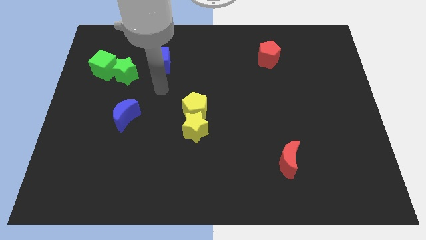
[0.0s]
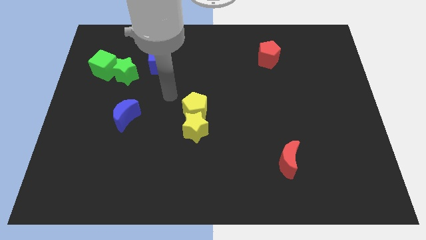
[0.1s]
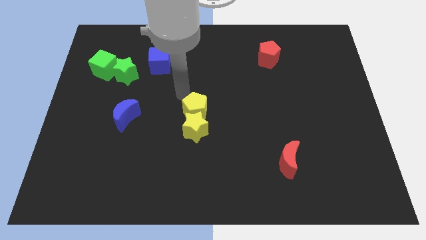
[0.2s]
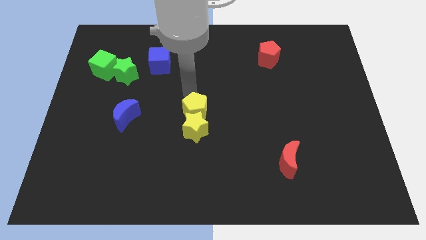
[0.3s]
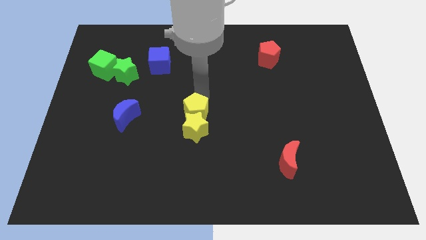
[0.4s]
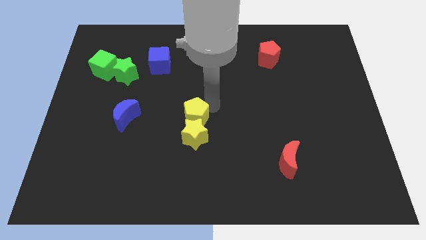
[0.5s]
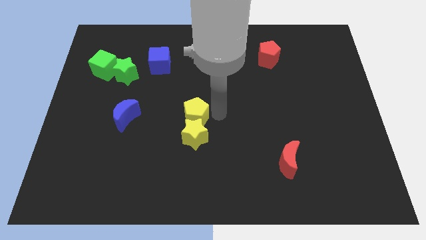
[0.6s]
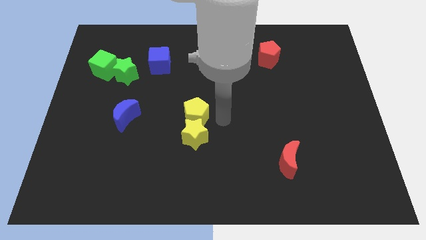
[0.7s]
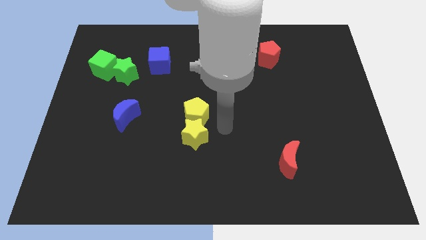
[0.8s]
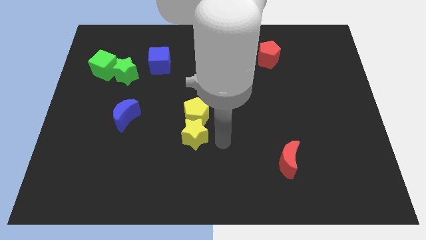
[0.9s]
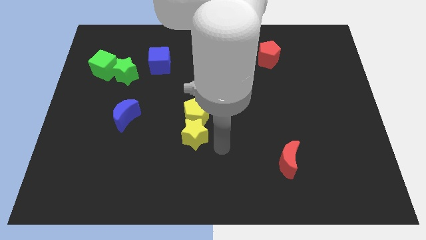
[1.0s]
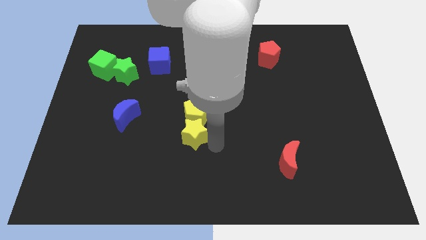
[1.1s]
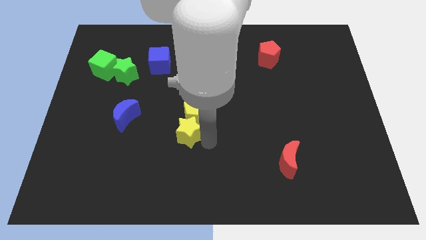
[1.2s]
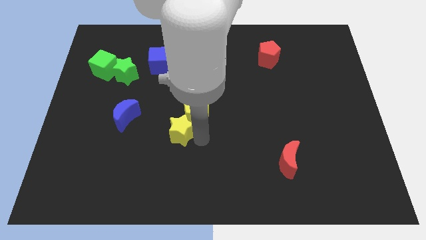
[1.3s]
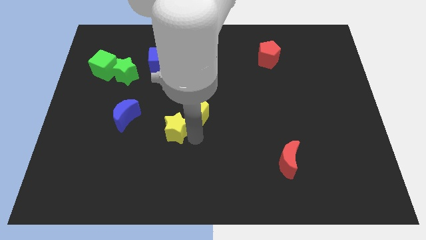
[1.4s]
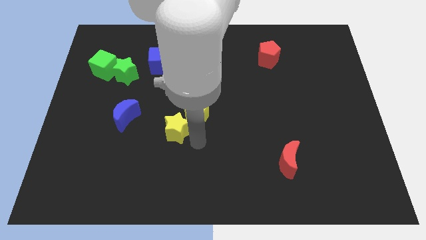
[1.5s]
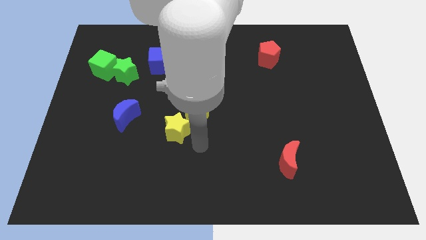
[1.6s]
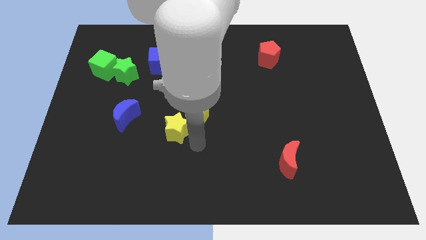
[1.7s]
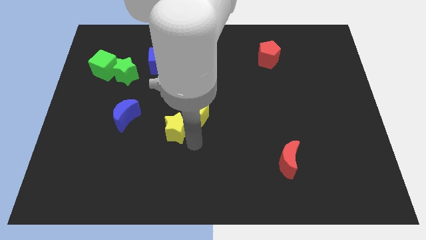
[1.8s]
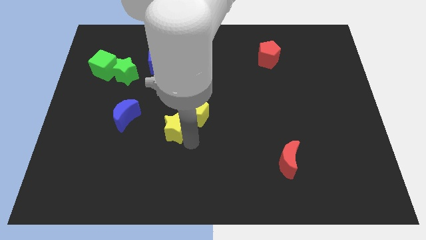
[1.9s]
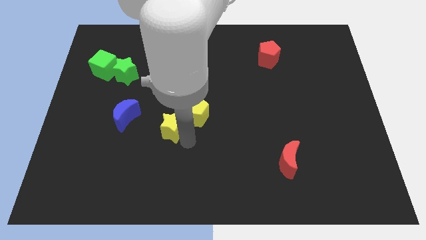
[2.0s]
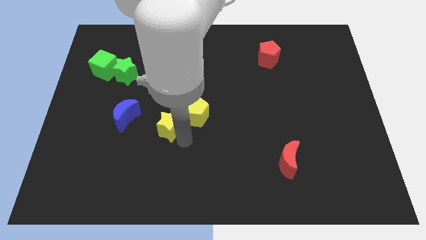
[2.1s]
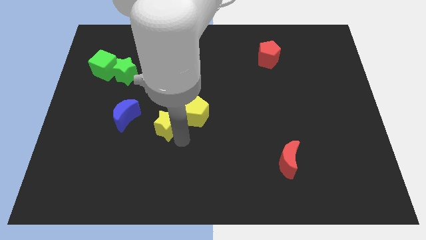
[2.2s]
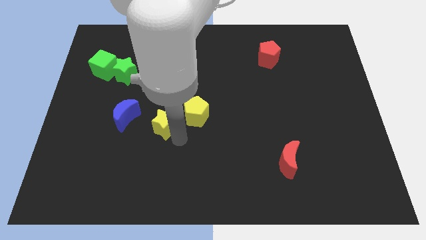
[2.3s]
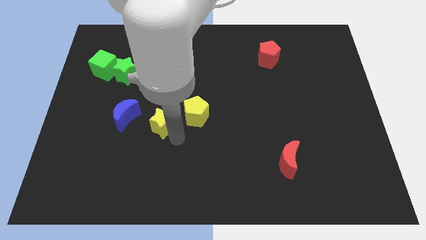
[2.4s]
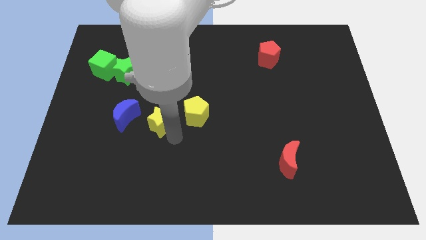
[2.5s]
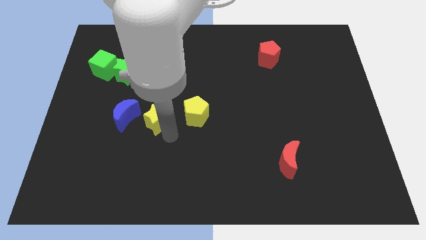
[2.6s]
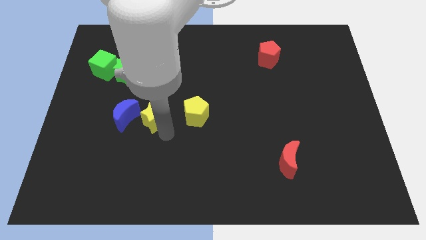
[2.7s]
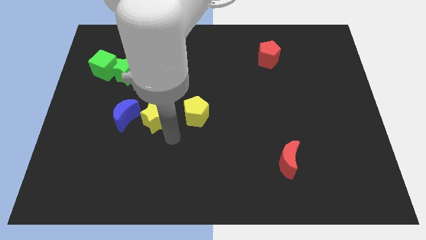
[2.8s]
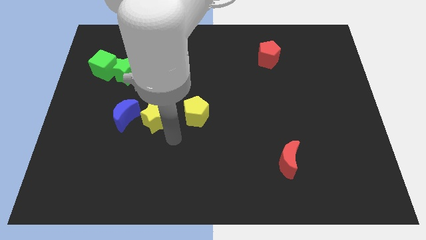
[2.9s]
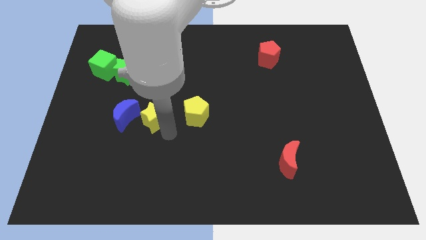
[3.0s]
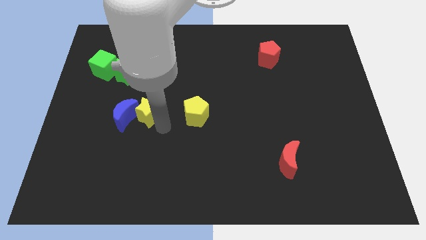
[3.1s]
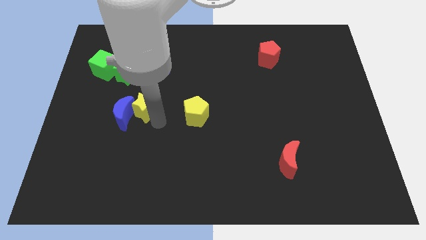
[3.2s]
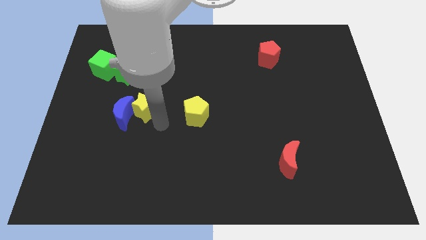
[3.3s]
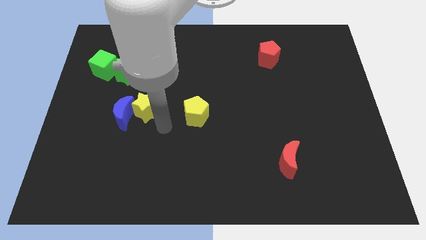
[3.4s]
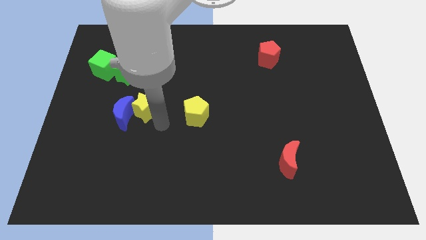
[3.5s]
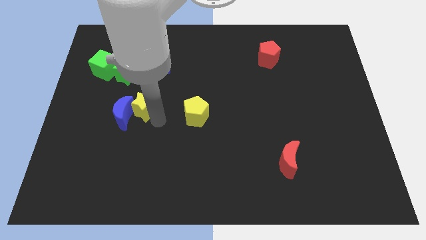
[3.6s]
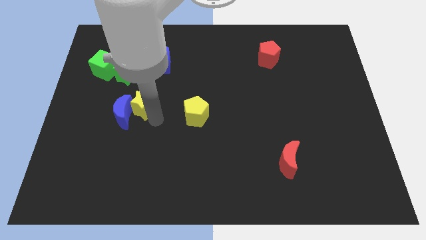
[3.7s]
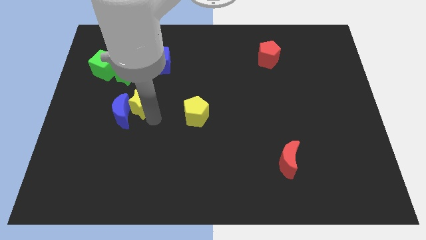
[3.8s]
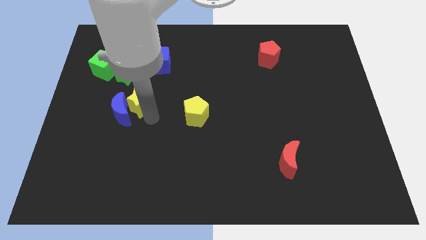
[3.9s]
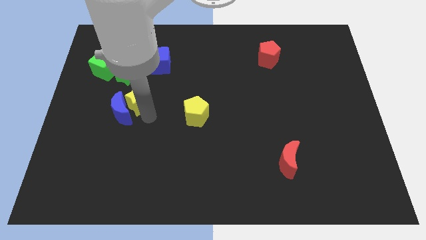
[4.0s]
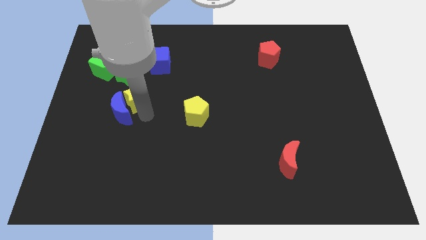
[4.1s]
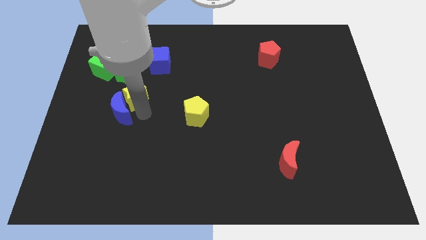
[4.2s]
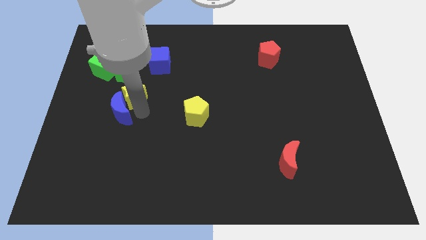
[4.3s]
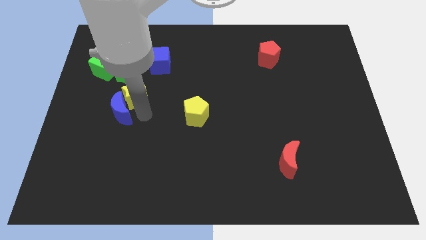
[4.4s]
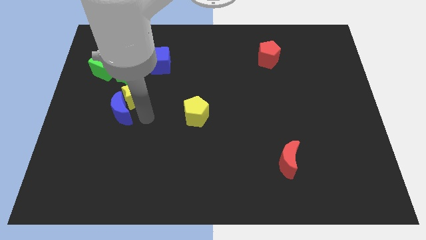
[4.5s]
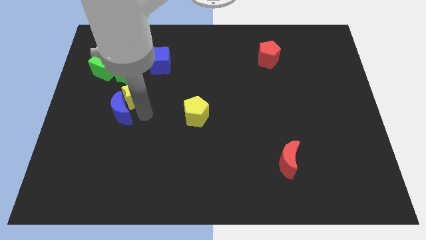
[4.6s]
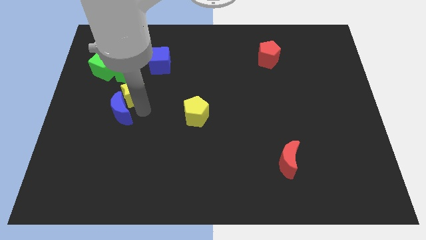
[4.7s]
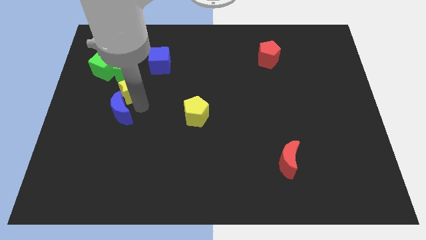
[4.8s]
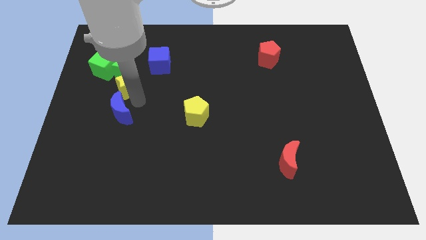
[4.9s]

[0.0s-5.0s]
push the yellow star next to the green star

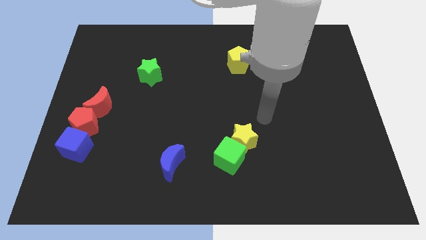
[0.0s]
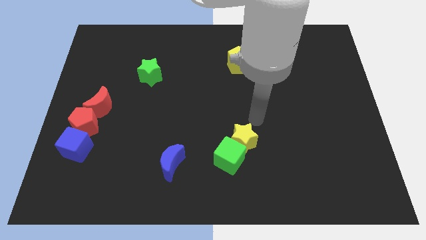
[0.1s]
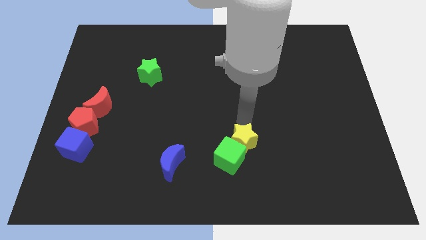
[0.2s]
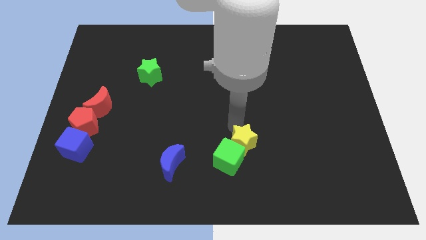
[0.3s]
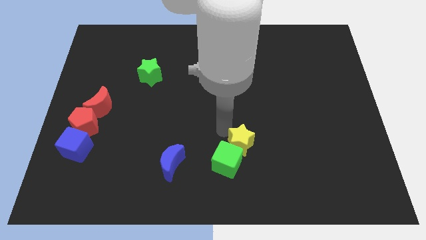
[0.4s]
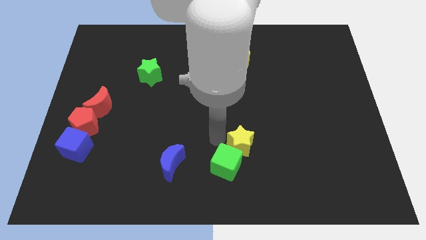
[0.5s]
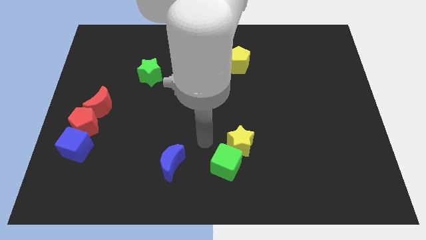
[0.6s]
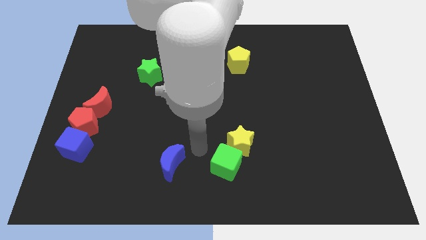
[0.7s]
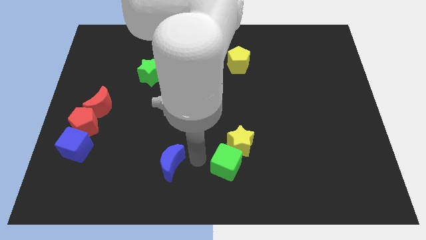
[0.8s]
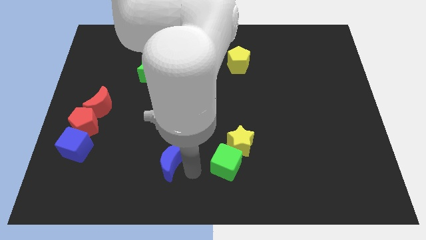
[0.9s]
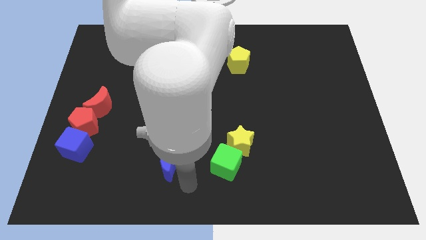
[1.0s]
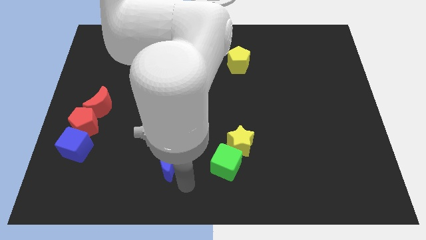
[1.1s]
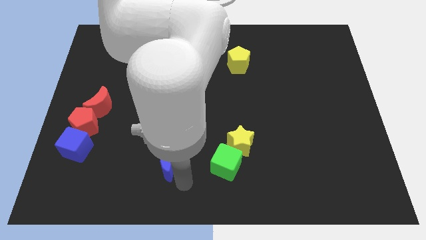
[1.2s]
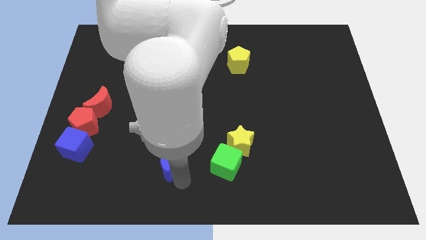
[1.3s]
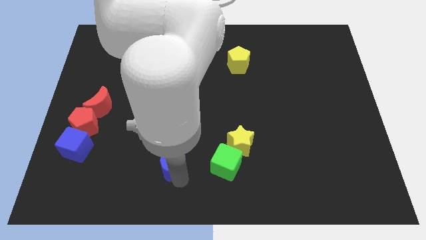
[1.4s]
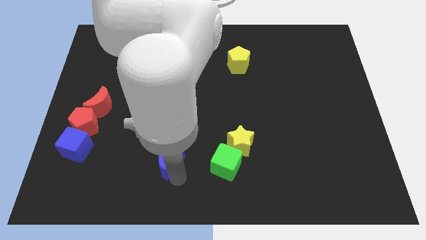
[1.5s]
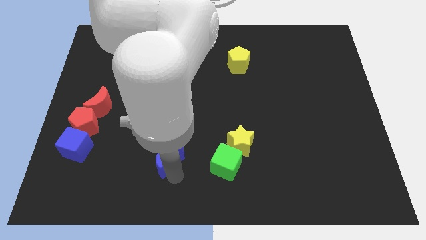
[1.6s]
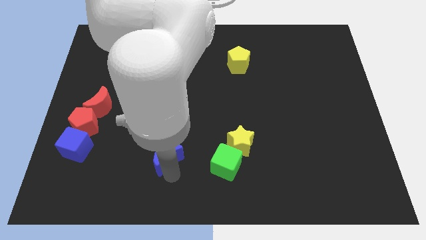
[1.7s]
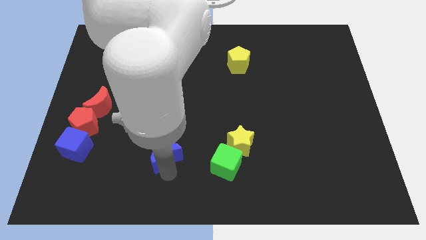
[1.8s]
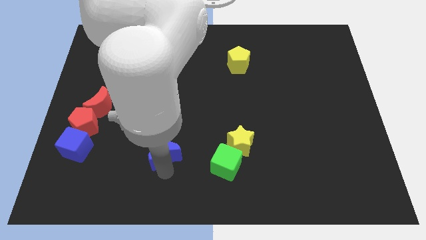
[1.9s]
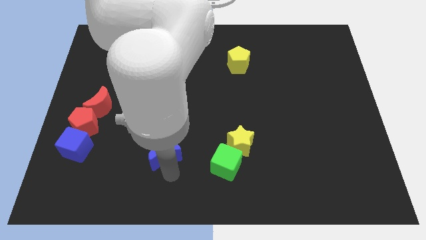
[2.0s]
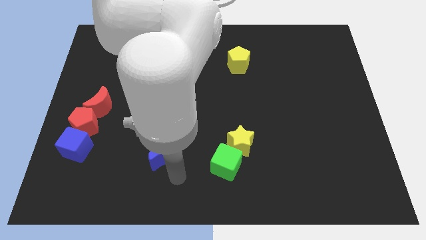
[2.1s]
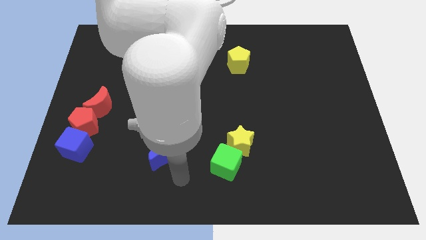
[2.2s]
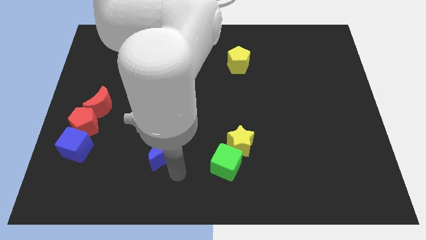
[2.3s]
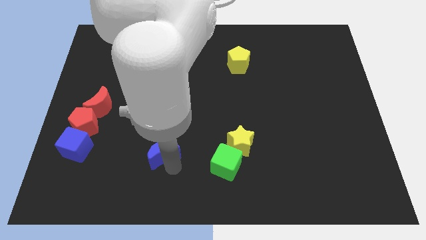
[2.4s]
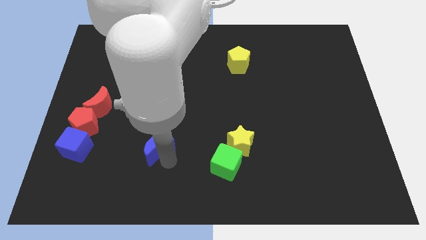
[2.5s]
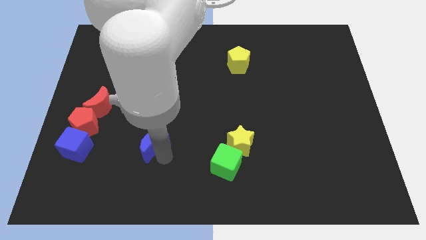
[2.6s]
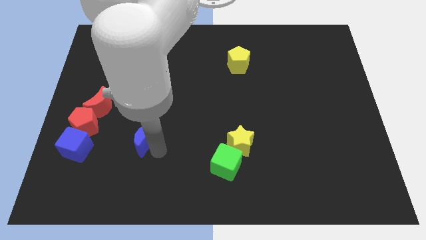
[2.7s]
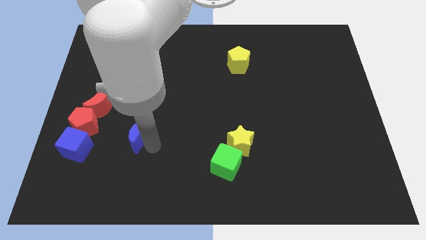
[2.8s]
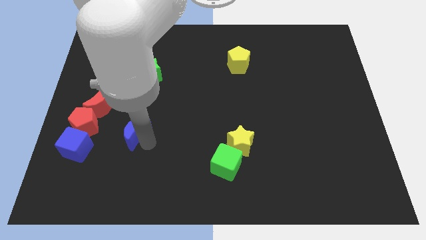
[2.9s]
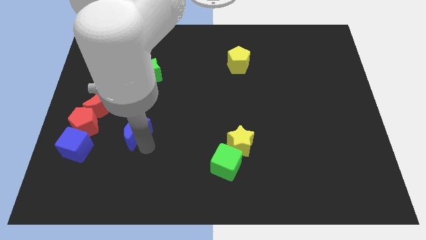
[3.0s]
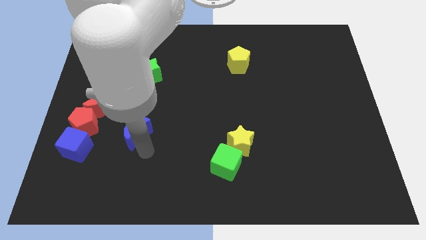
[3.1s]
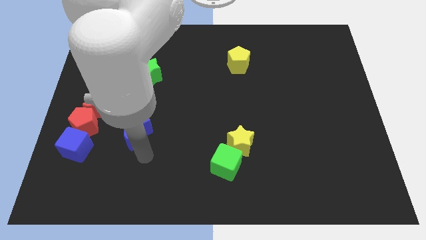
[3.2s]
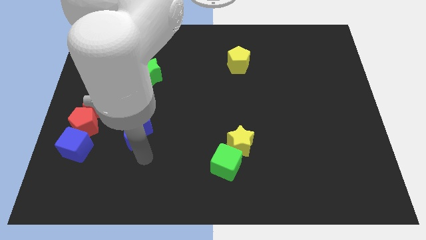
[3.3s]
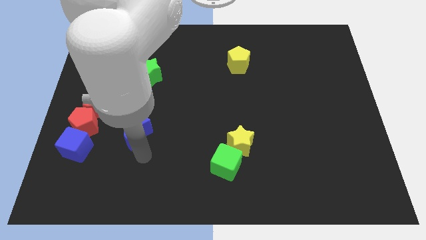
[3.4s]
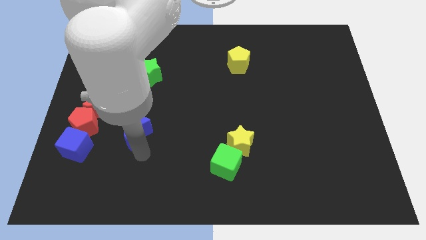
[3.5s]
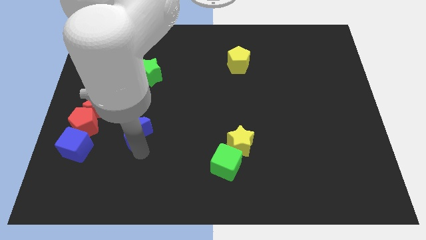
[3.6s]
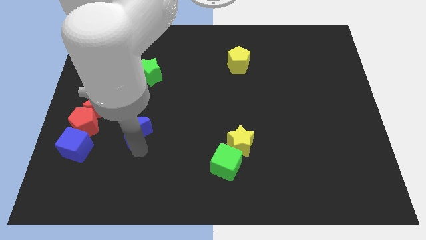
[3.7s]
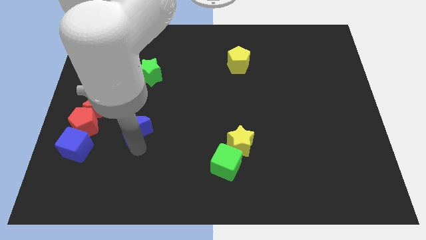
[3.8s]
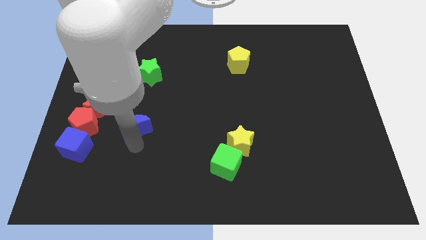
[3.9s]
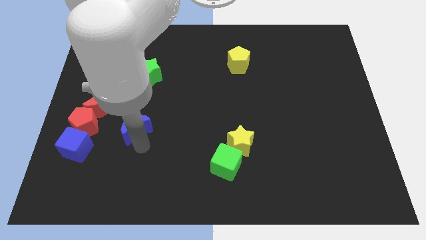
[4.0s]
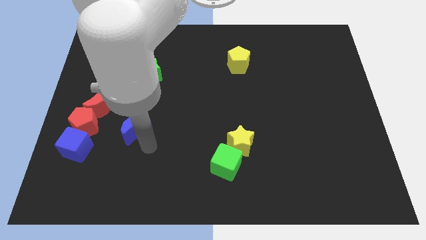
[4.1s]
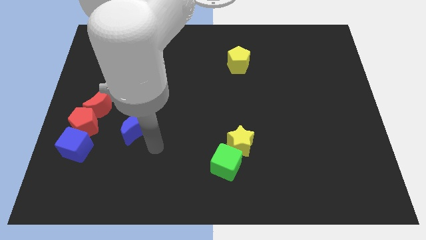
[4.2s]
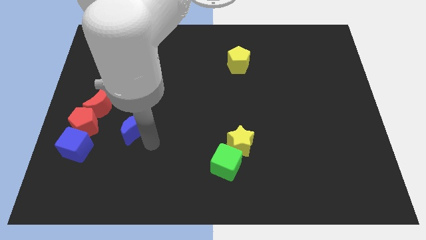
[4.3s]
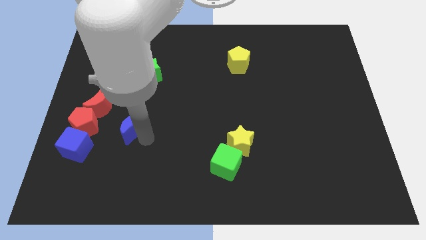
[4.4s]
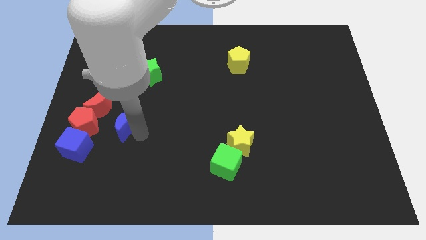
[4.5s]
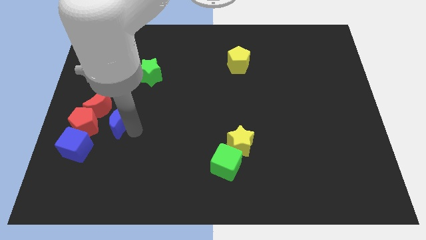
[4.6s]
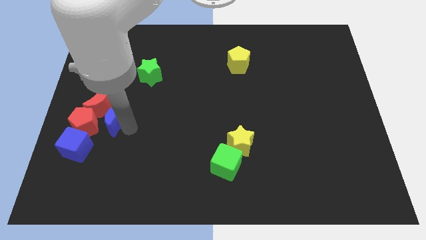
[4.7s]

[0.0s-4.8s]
put the blue moon close to the red moon
